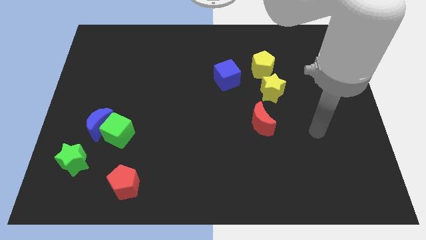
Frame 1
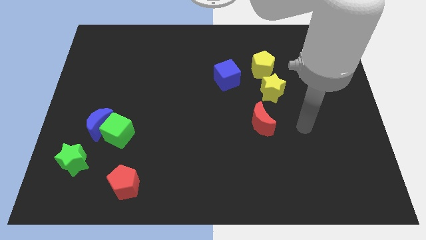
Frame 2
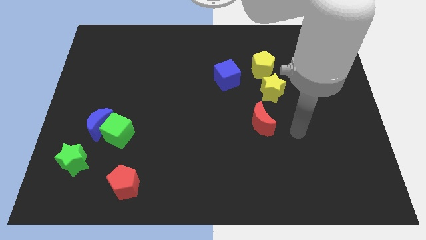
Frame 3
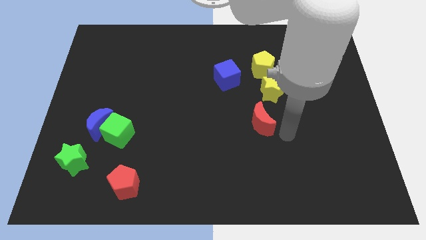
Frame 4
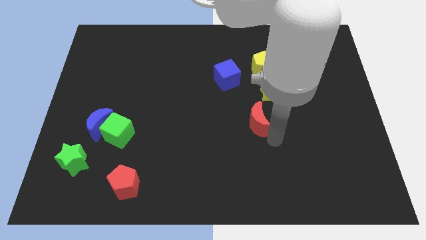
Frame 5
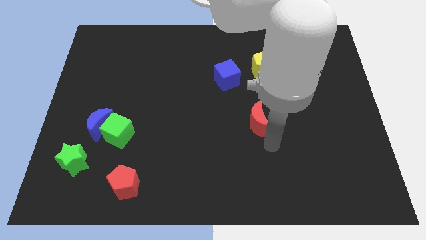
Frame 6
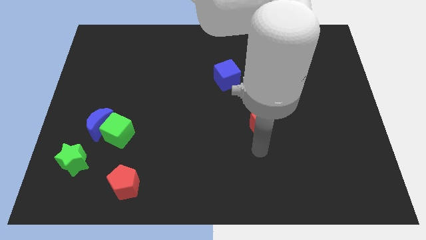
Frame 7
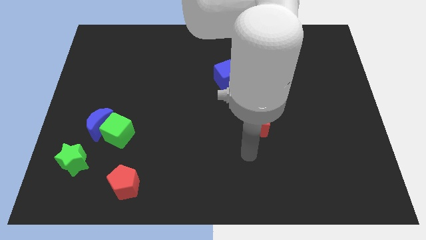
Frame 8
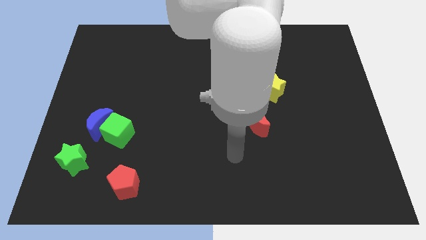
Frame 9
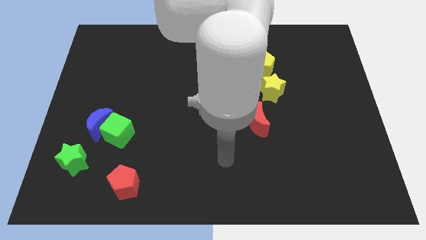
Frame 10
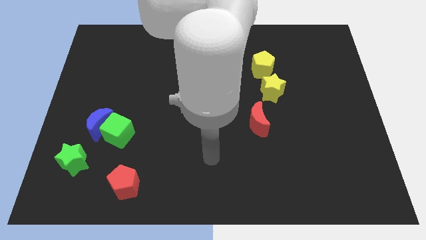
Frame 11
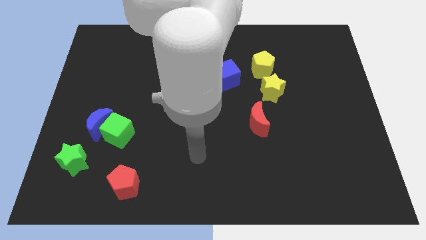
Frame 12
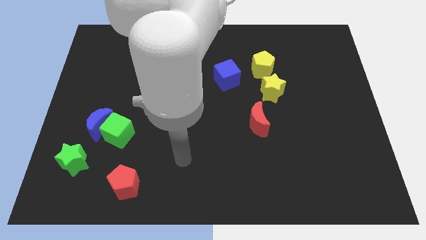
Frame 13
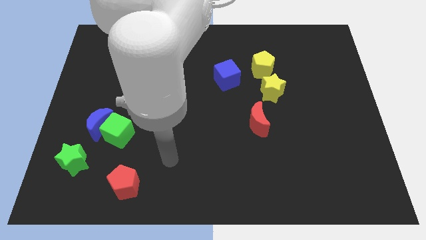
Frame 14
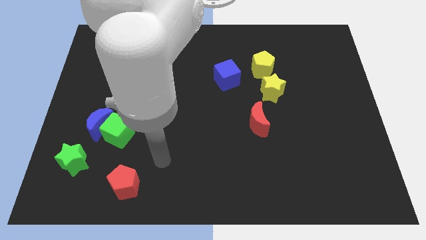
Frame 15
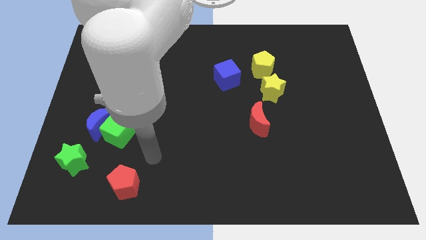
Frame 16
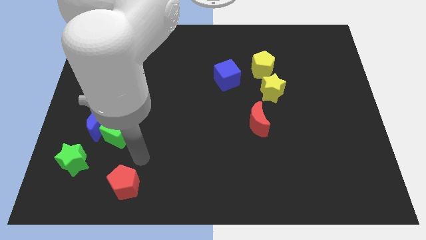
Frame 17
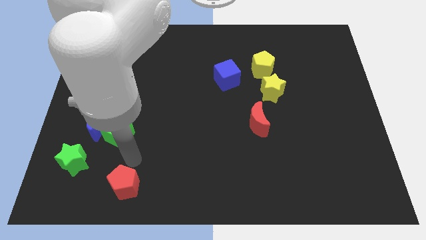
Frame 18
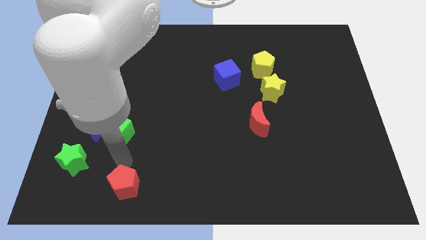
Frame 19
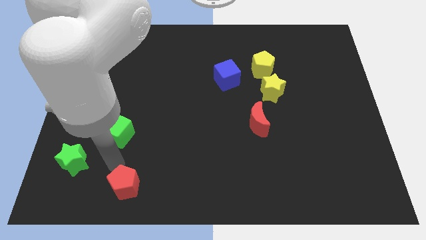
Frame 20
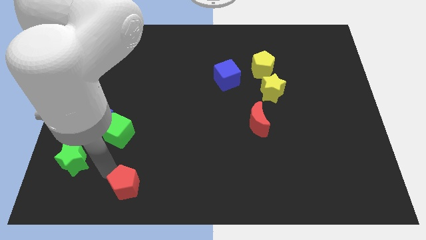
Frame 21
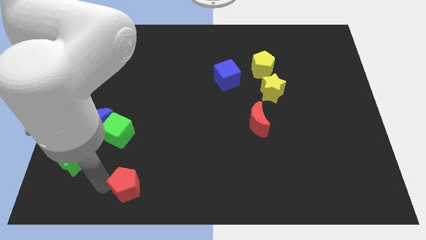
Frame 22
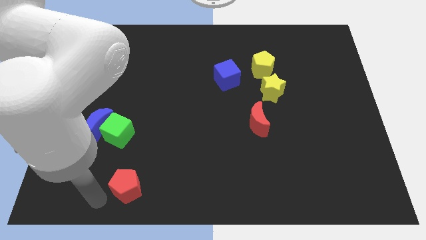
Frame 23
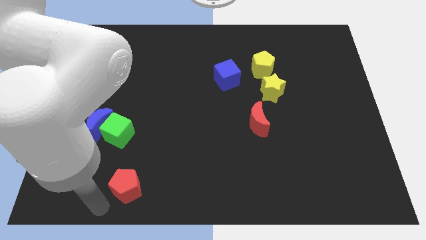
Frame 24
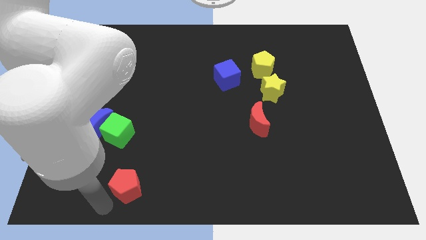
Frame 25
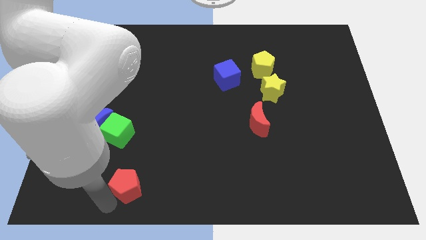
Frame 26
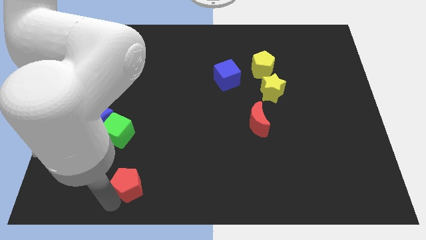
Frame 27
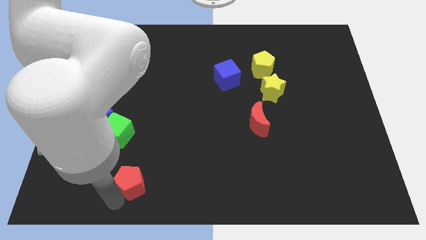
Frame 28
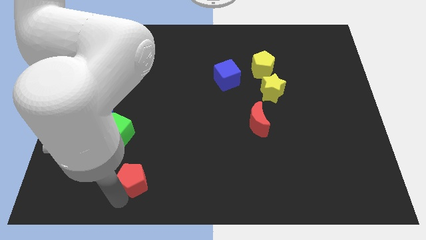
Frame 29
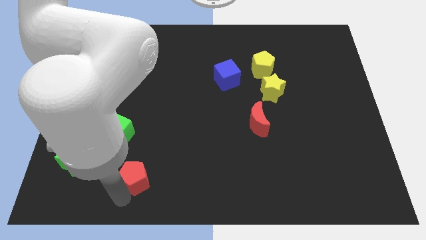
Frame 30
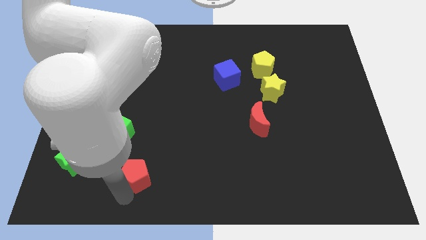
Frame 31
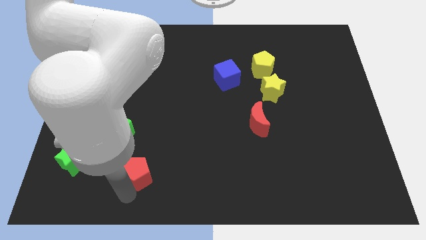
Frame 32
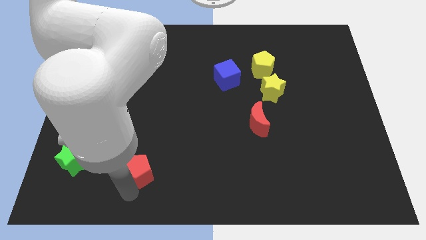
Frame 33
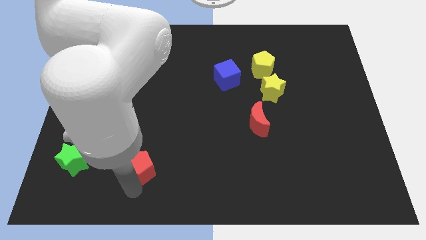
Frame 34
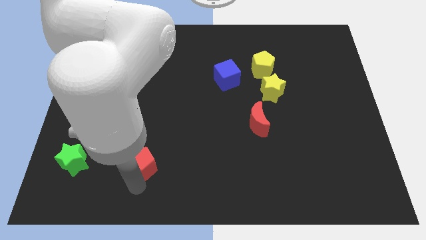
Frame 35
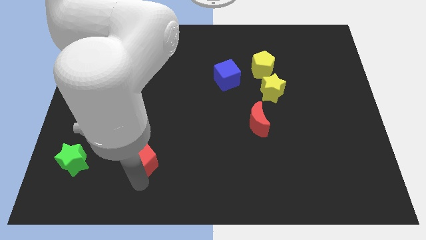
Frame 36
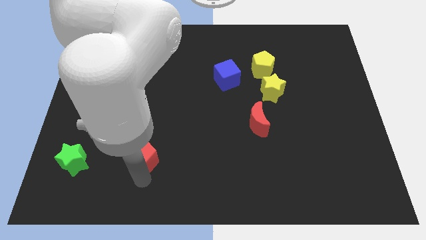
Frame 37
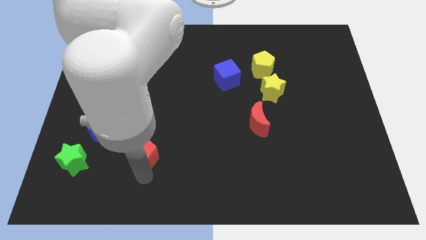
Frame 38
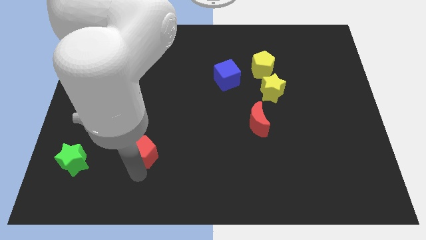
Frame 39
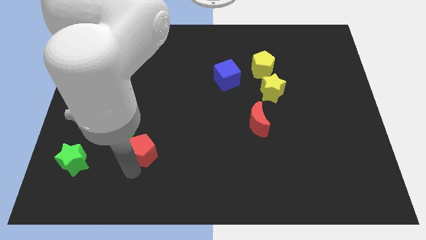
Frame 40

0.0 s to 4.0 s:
slightly push the red pentagon up and right diagonally

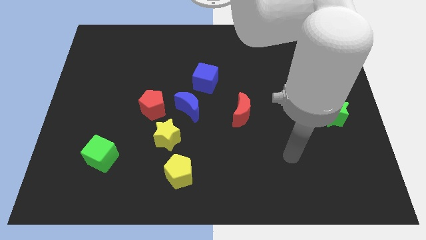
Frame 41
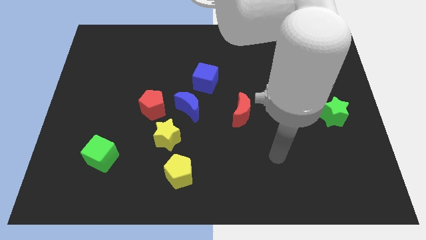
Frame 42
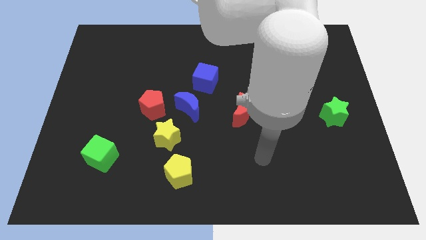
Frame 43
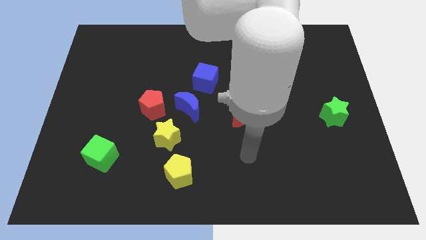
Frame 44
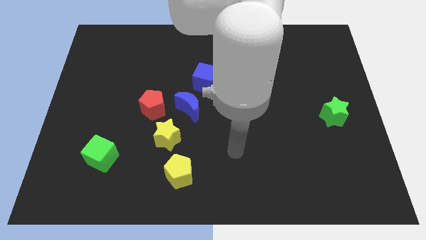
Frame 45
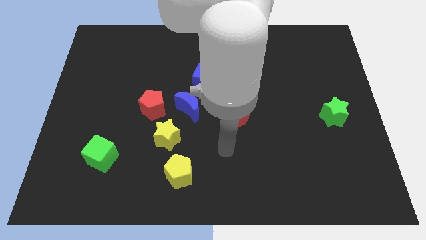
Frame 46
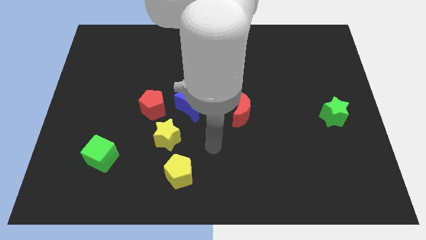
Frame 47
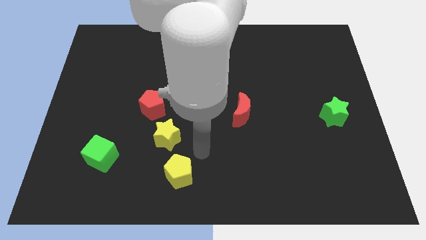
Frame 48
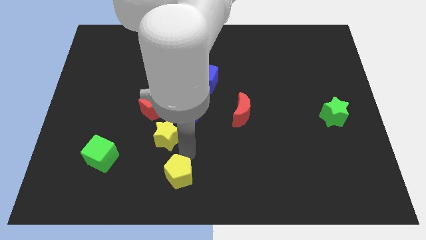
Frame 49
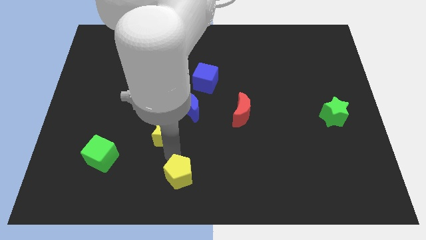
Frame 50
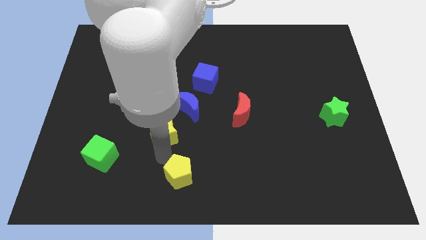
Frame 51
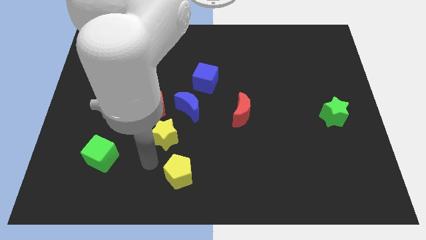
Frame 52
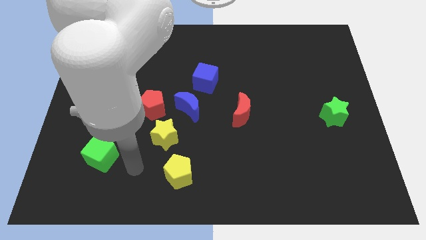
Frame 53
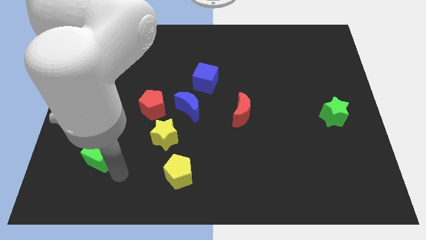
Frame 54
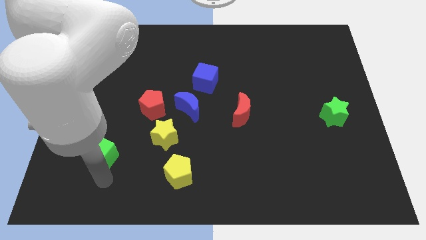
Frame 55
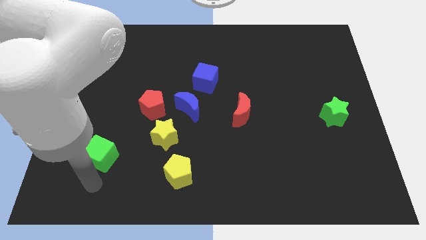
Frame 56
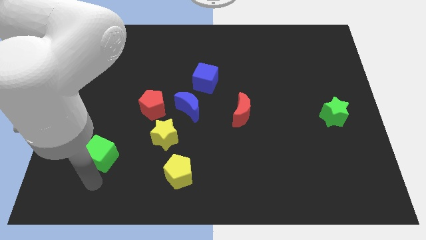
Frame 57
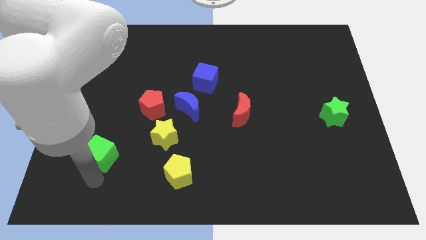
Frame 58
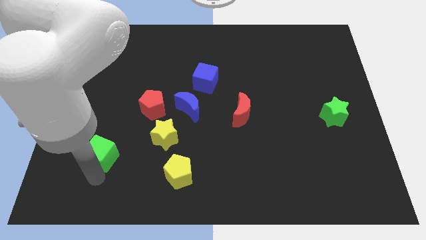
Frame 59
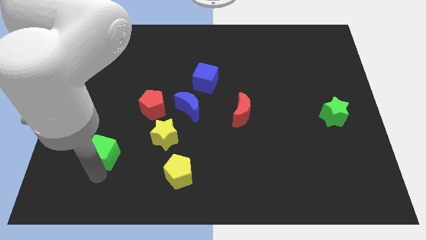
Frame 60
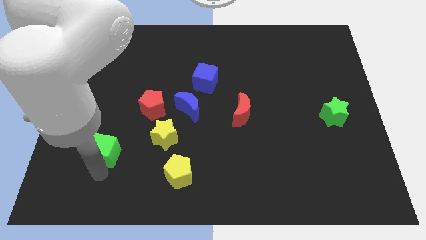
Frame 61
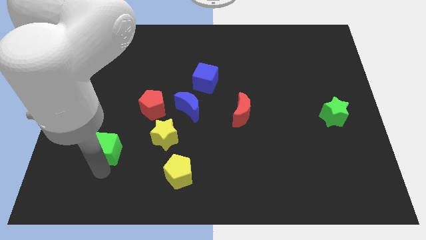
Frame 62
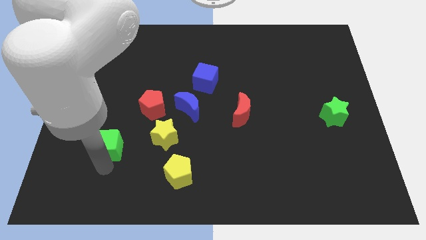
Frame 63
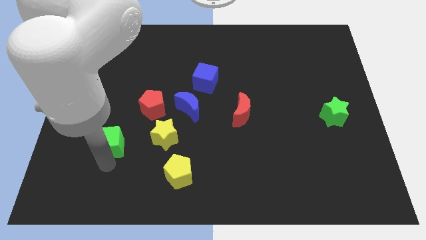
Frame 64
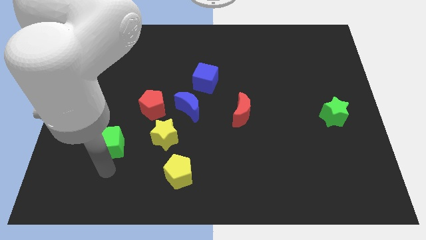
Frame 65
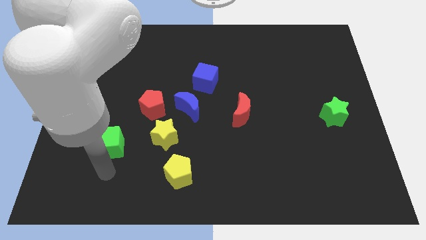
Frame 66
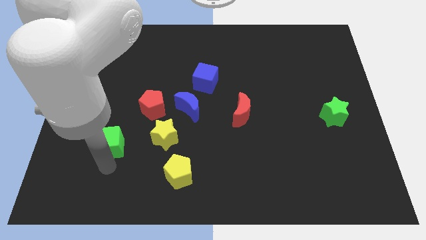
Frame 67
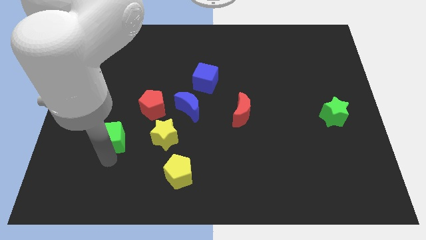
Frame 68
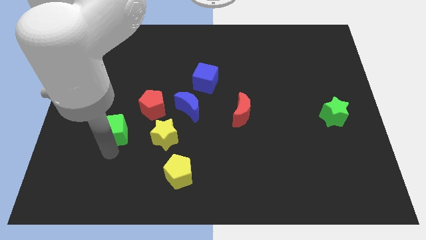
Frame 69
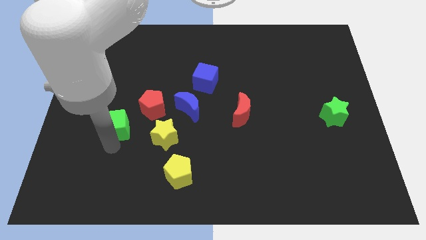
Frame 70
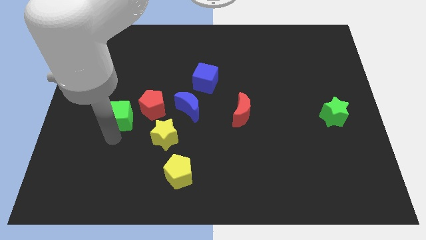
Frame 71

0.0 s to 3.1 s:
push the green cube a little bit diagonally upwards and right

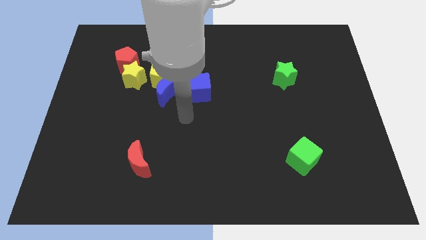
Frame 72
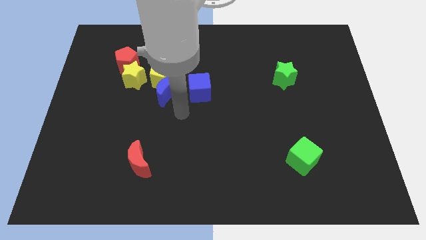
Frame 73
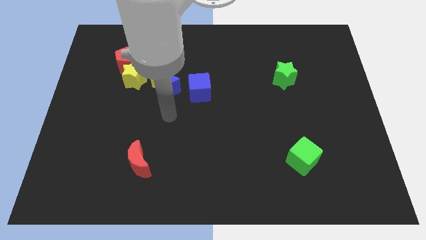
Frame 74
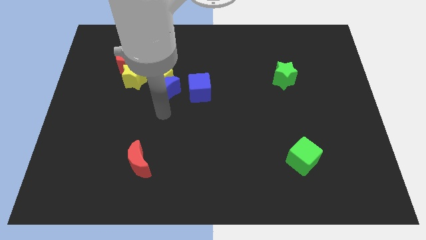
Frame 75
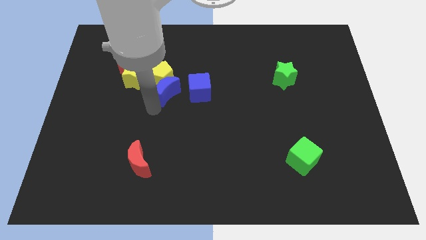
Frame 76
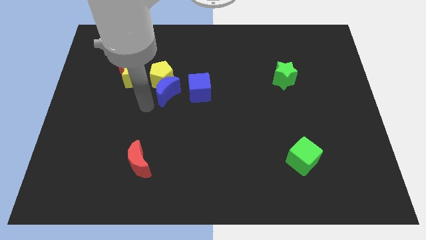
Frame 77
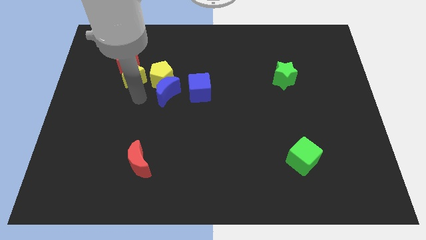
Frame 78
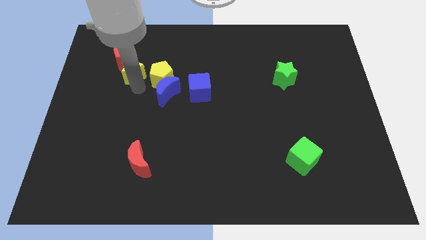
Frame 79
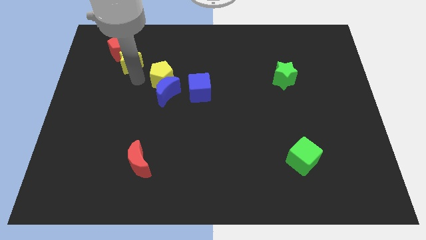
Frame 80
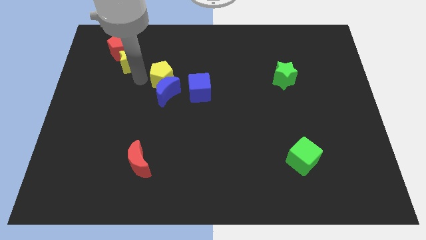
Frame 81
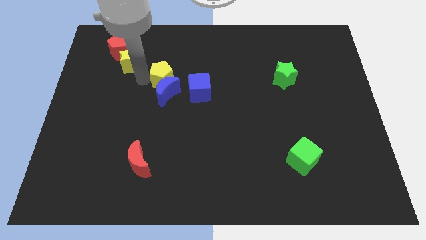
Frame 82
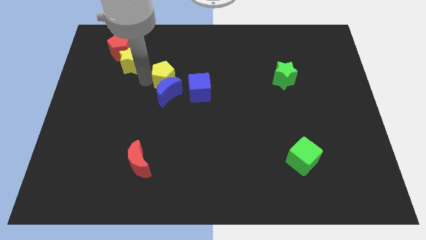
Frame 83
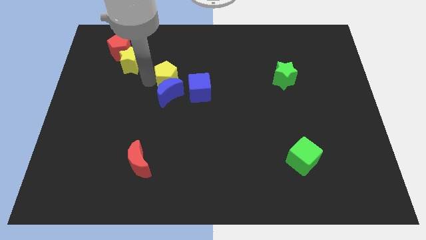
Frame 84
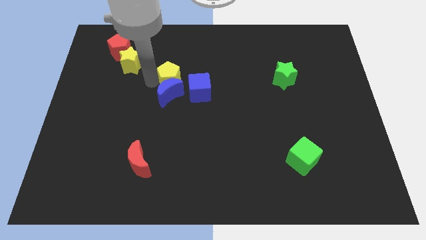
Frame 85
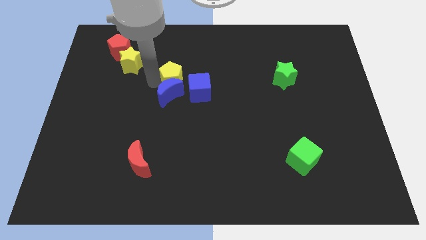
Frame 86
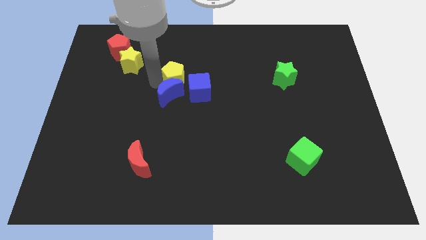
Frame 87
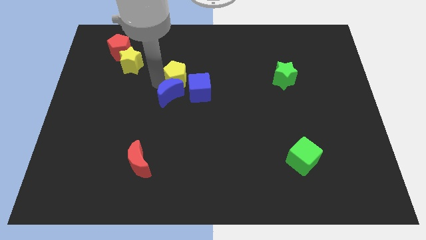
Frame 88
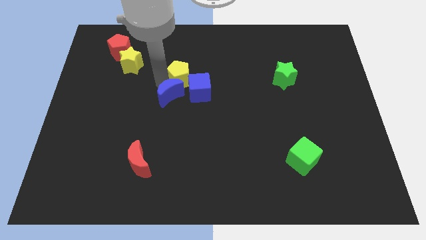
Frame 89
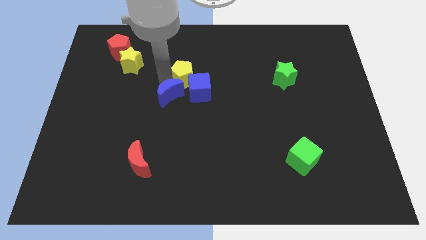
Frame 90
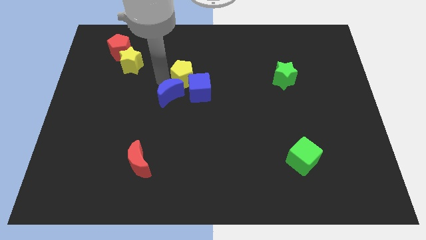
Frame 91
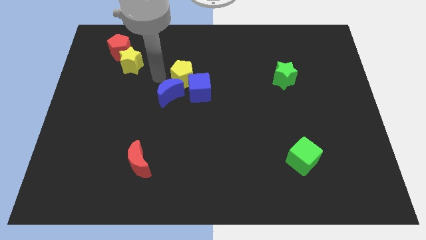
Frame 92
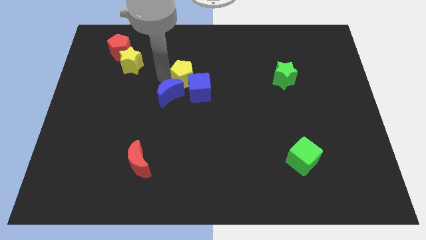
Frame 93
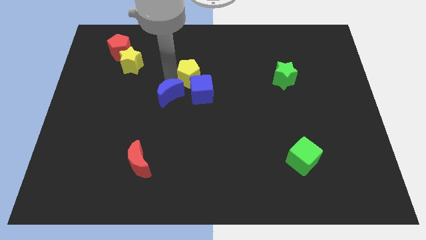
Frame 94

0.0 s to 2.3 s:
slightly move the yellow pentagon right
